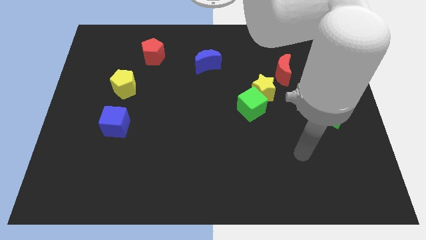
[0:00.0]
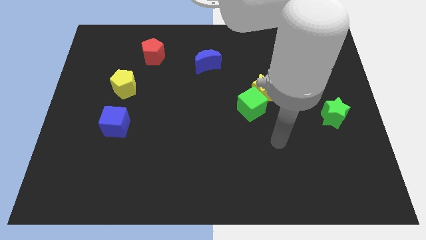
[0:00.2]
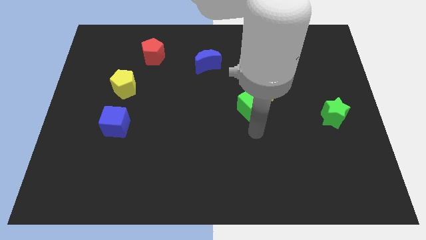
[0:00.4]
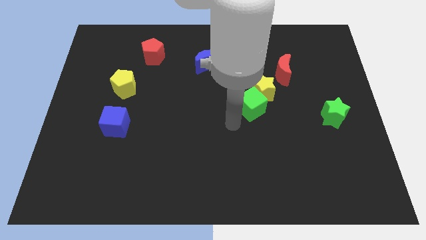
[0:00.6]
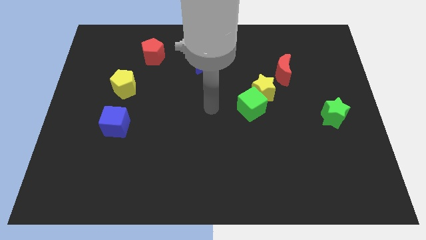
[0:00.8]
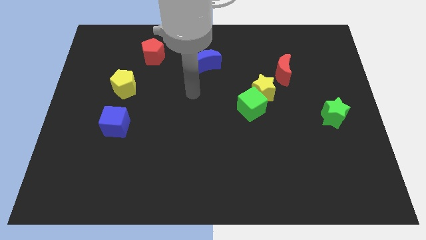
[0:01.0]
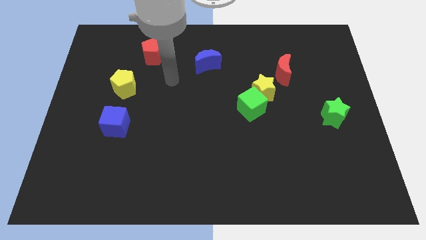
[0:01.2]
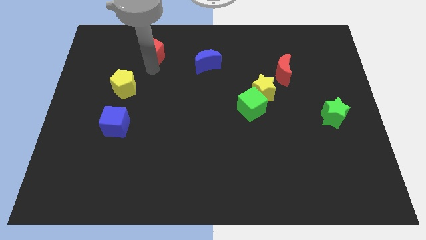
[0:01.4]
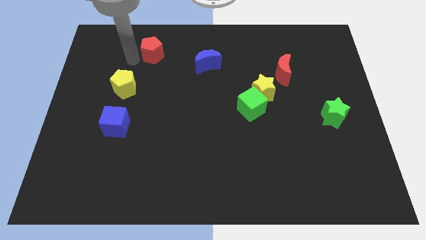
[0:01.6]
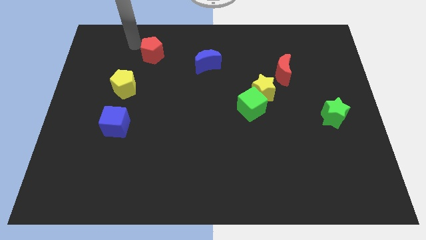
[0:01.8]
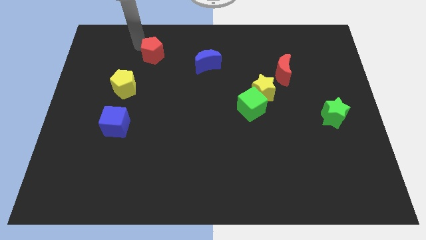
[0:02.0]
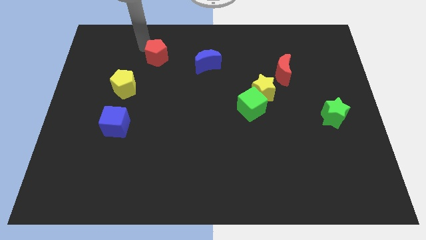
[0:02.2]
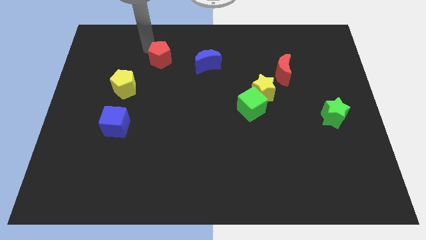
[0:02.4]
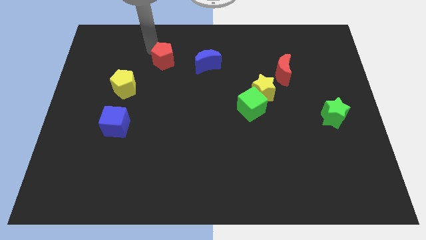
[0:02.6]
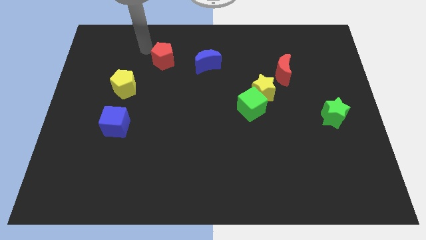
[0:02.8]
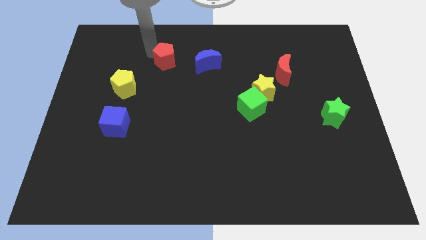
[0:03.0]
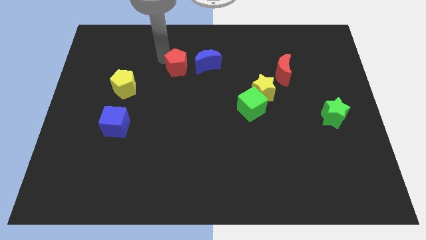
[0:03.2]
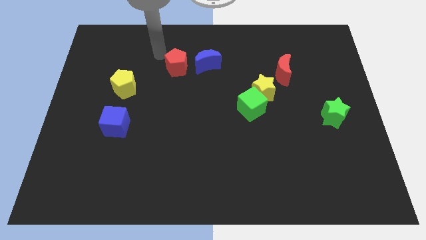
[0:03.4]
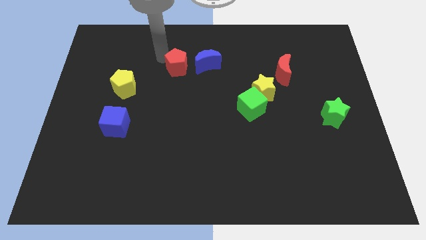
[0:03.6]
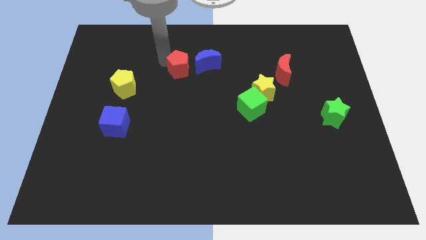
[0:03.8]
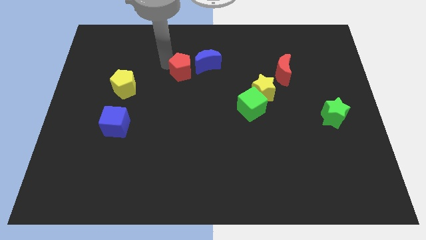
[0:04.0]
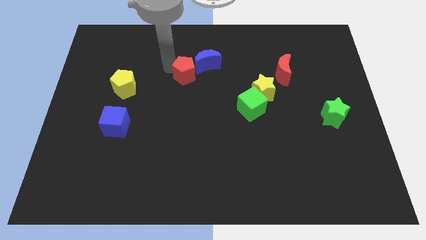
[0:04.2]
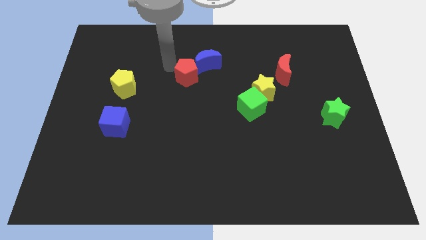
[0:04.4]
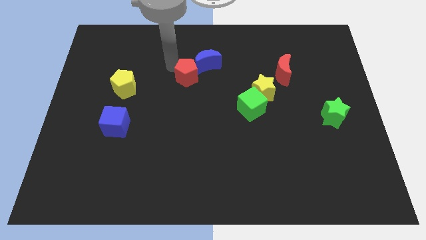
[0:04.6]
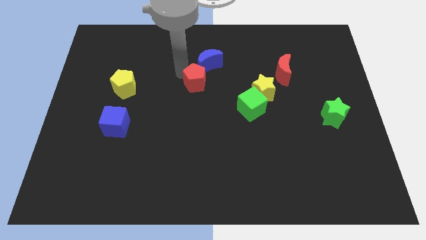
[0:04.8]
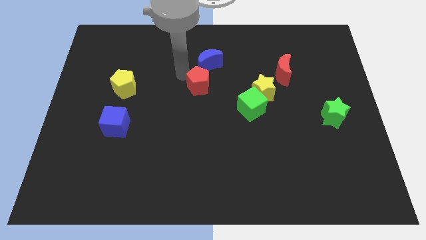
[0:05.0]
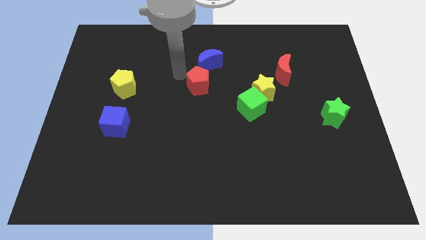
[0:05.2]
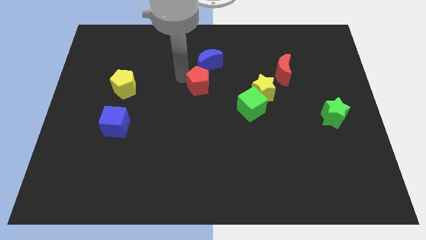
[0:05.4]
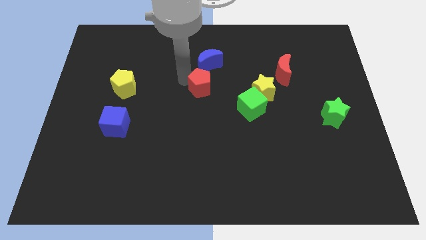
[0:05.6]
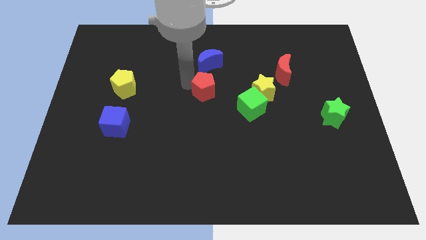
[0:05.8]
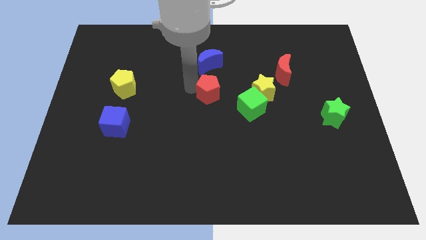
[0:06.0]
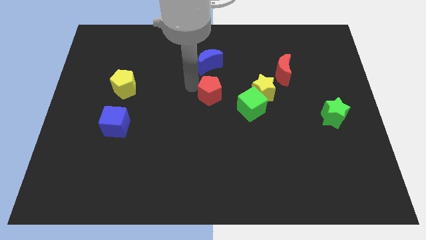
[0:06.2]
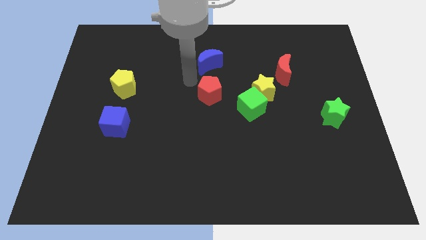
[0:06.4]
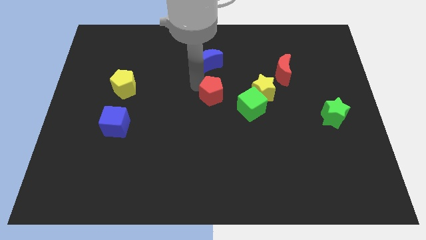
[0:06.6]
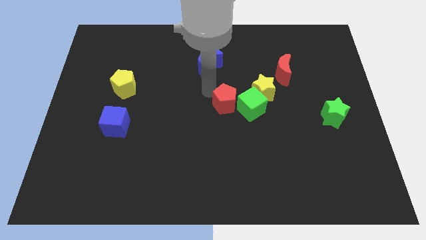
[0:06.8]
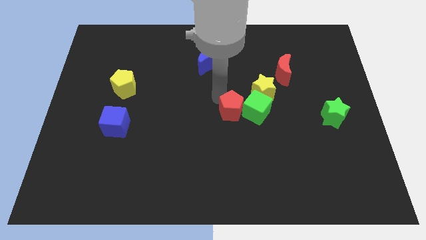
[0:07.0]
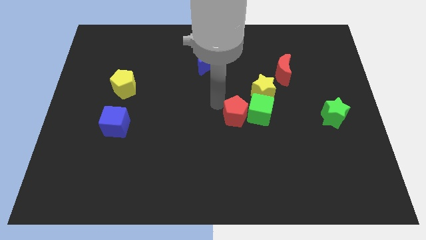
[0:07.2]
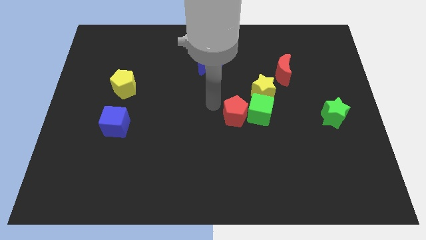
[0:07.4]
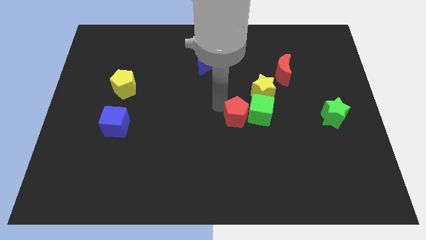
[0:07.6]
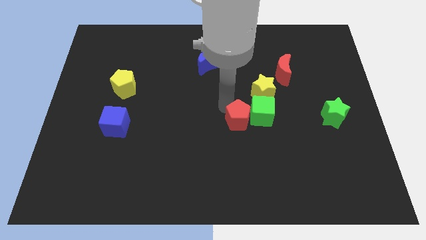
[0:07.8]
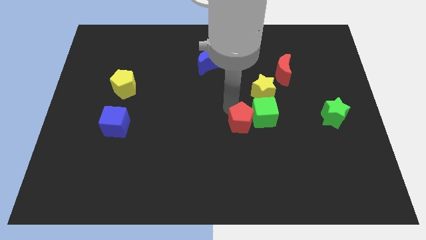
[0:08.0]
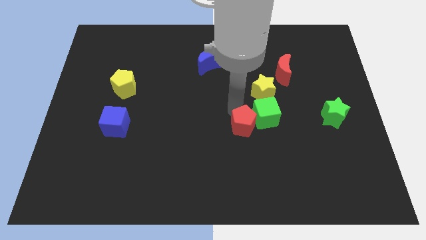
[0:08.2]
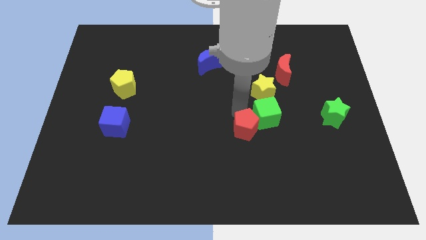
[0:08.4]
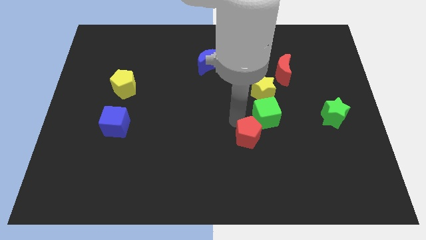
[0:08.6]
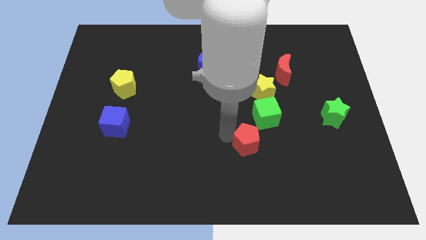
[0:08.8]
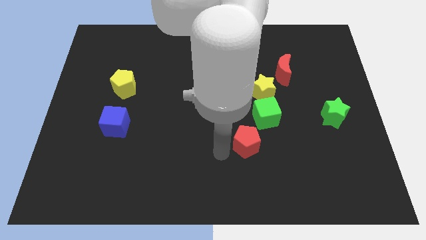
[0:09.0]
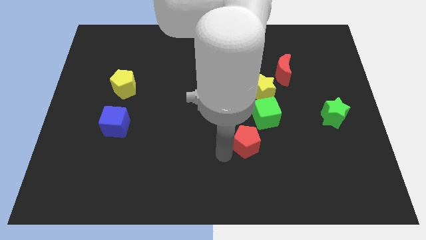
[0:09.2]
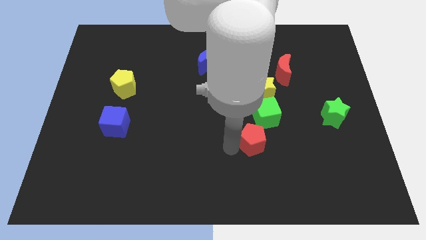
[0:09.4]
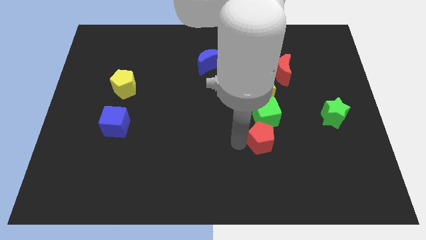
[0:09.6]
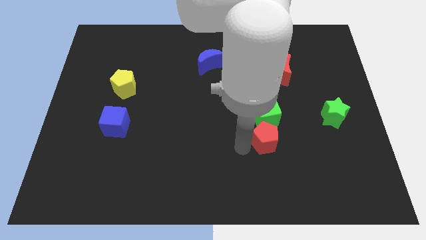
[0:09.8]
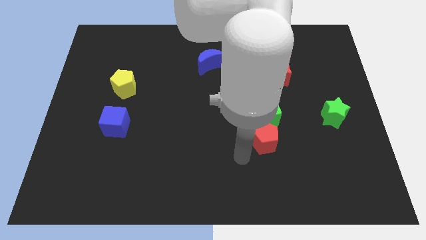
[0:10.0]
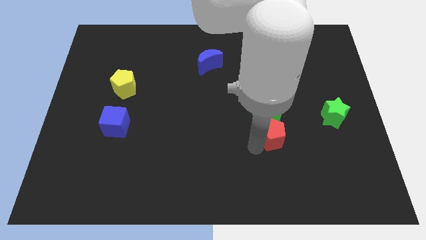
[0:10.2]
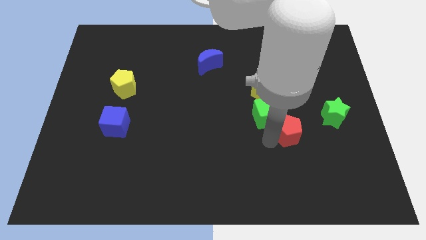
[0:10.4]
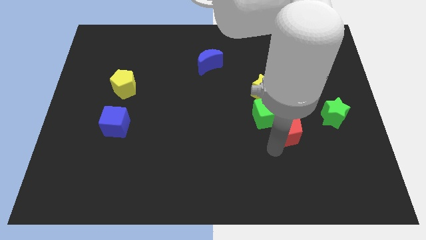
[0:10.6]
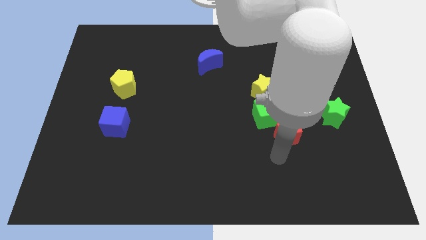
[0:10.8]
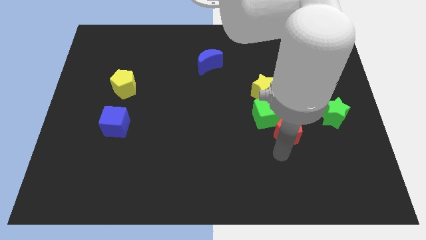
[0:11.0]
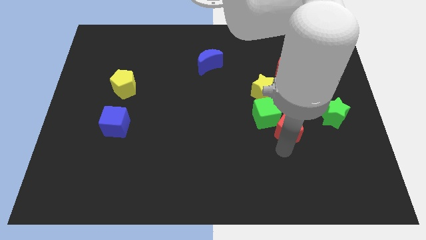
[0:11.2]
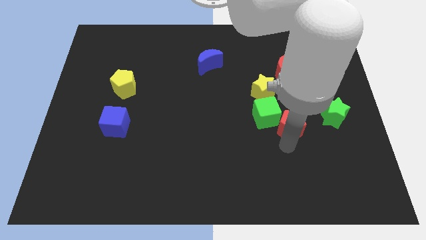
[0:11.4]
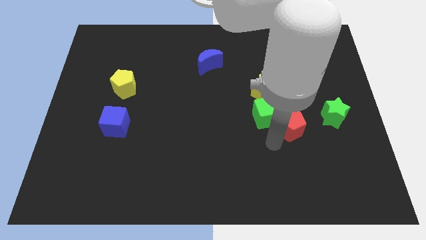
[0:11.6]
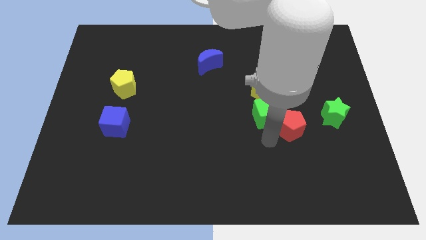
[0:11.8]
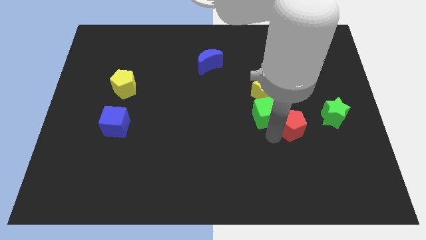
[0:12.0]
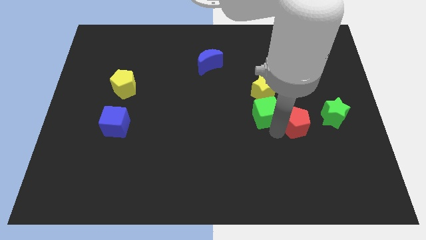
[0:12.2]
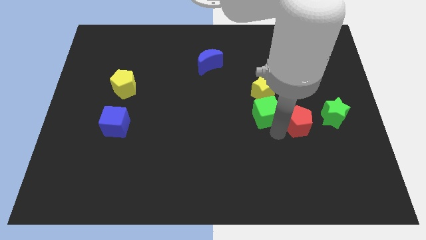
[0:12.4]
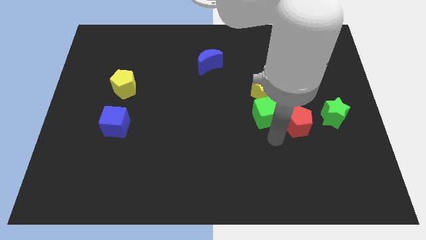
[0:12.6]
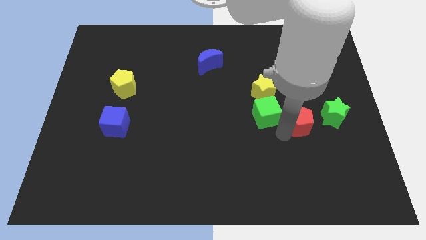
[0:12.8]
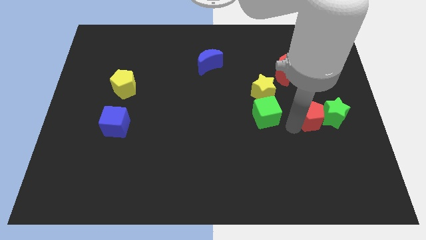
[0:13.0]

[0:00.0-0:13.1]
push the red pentagon towards the green star

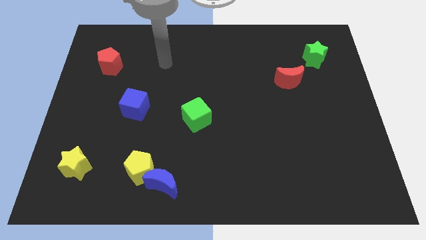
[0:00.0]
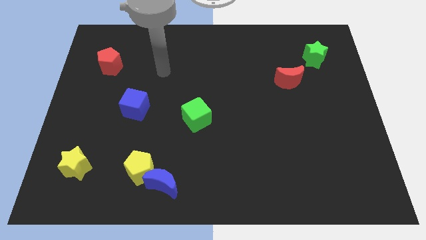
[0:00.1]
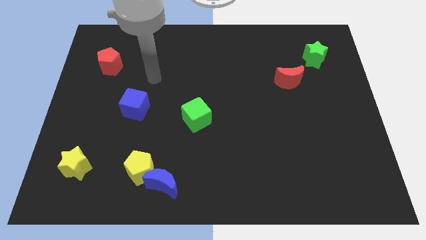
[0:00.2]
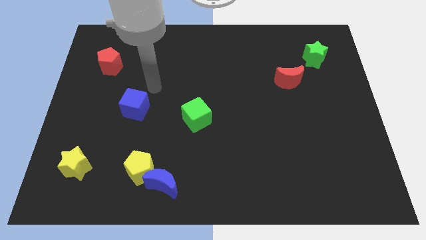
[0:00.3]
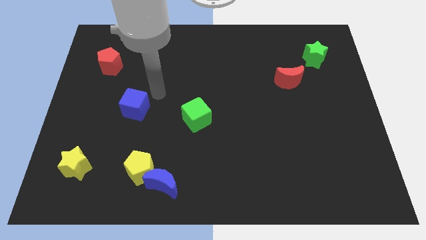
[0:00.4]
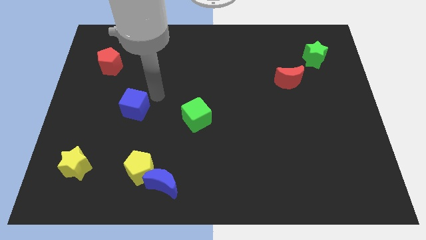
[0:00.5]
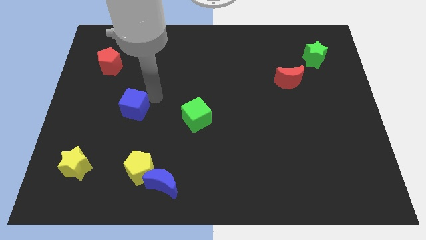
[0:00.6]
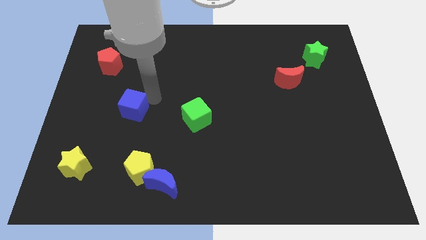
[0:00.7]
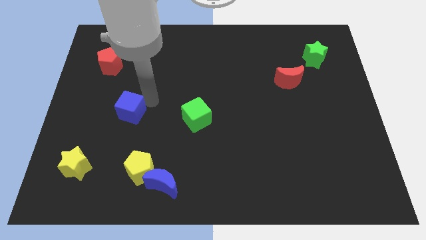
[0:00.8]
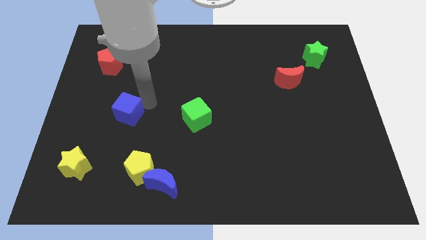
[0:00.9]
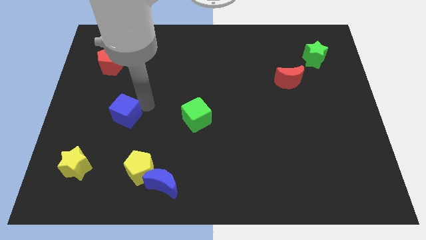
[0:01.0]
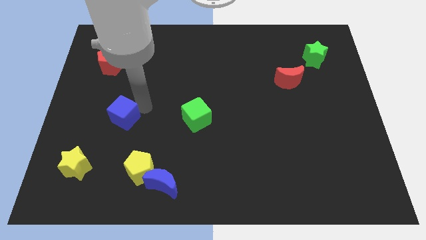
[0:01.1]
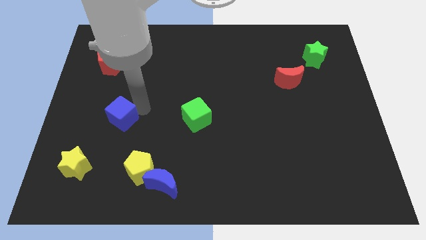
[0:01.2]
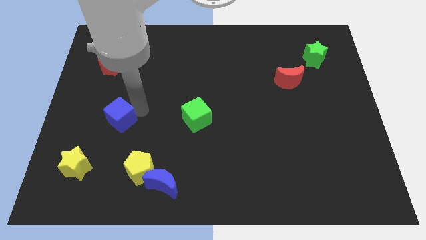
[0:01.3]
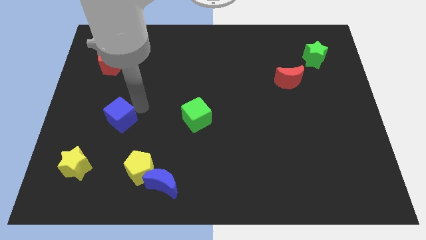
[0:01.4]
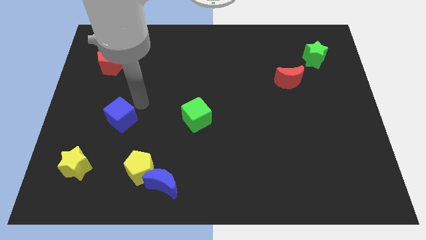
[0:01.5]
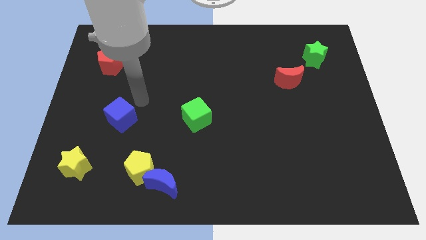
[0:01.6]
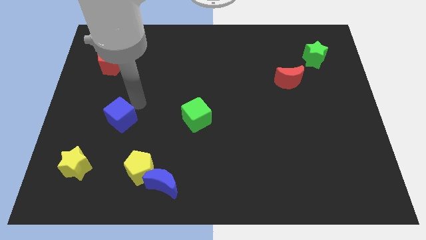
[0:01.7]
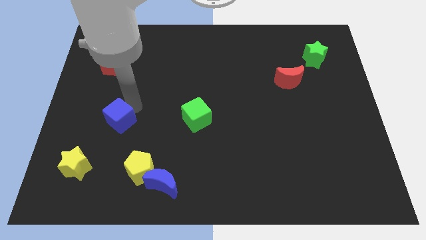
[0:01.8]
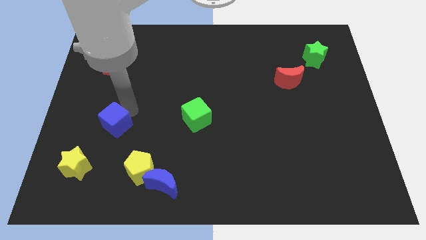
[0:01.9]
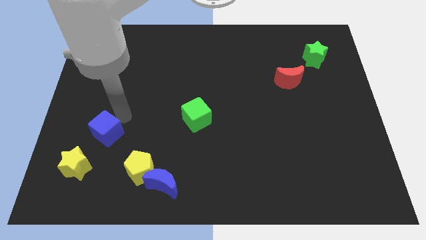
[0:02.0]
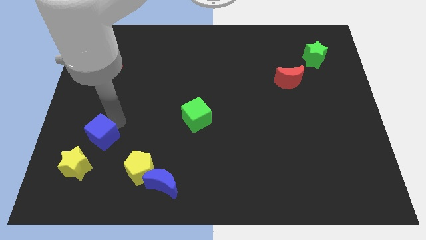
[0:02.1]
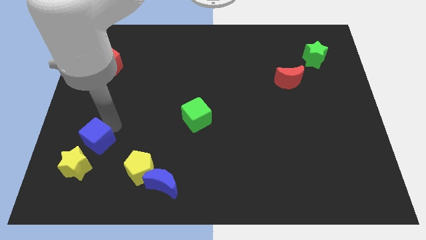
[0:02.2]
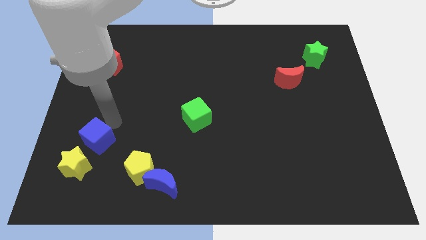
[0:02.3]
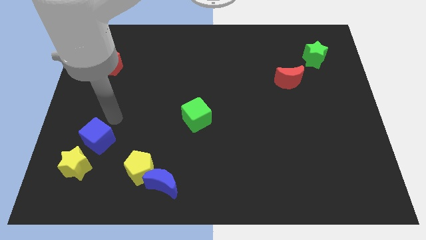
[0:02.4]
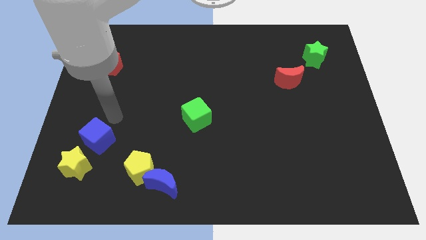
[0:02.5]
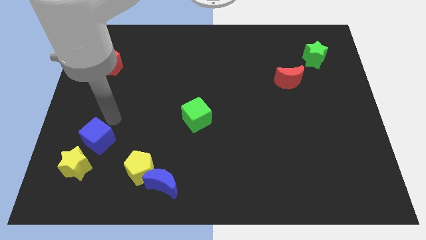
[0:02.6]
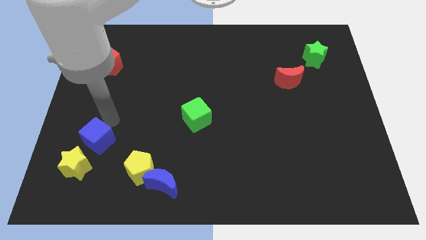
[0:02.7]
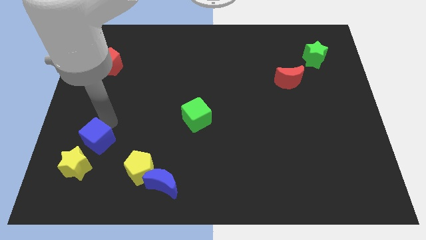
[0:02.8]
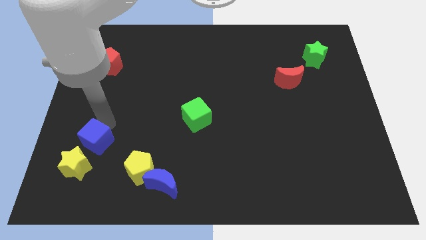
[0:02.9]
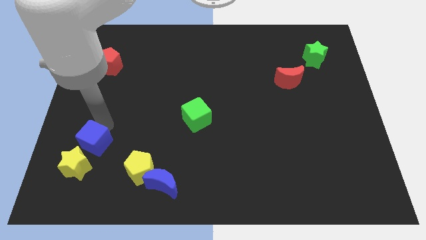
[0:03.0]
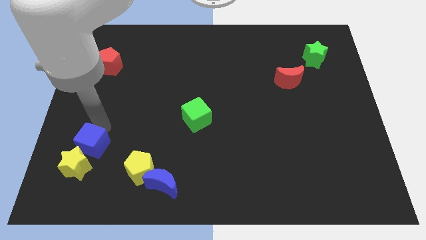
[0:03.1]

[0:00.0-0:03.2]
push the blue cube towards the yellow star
